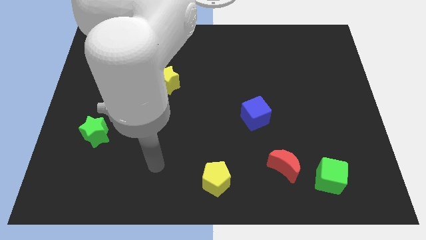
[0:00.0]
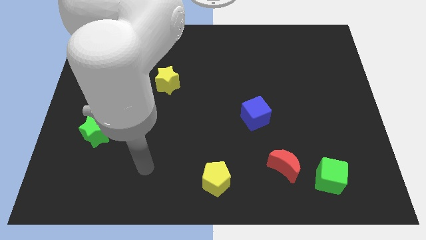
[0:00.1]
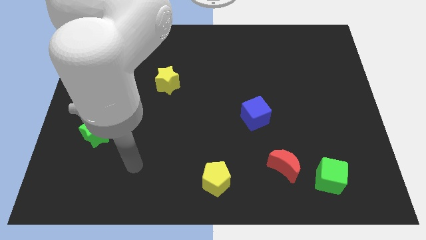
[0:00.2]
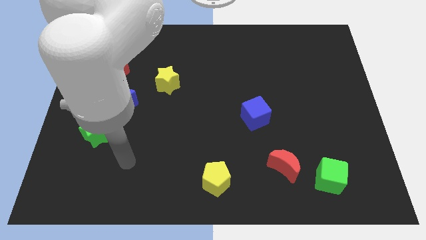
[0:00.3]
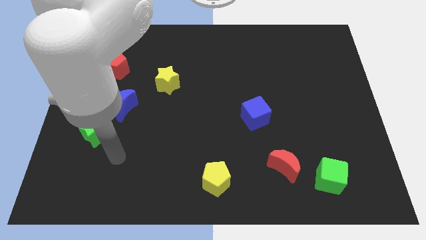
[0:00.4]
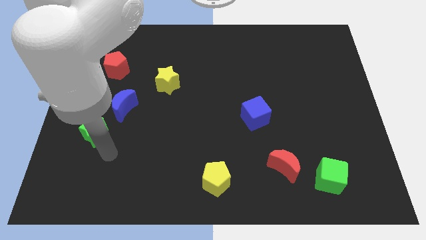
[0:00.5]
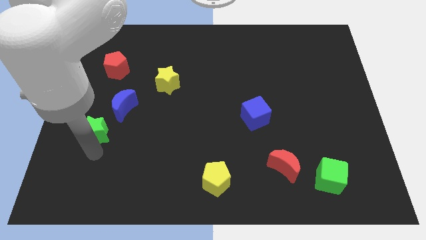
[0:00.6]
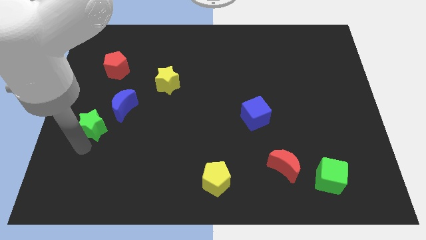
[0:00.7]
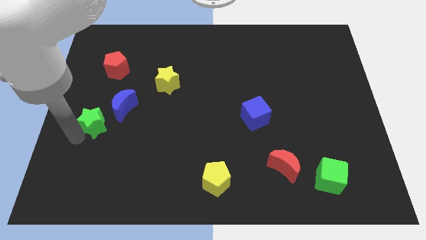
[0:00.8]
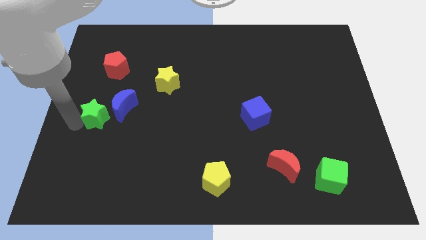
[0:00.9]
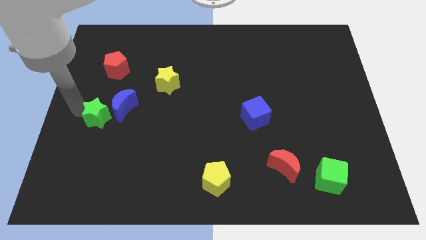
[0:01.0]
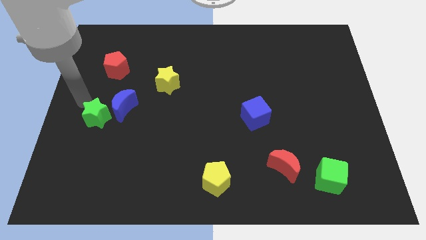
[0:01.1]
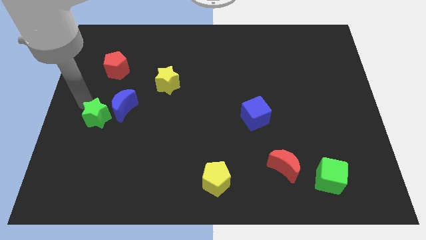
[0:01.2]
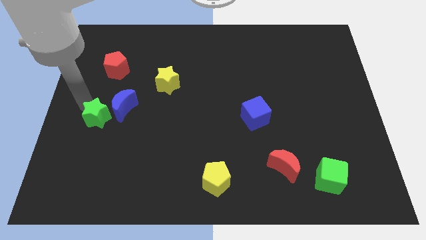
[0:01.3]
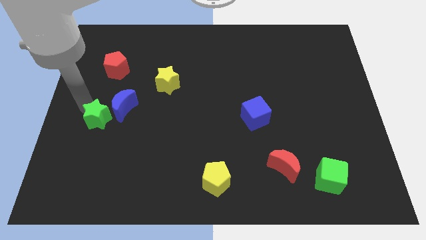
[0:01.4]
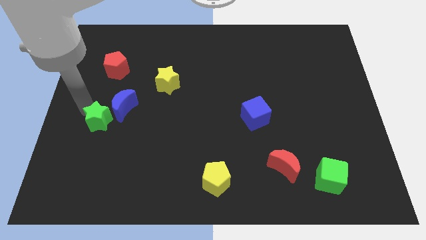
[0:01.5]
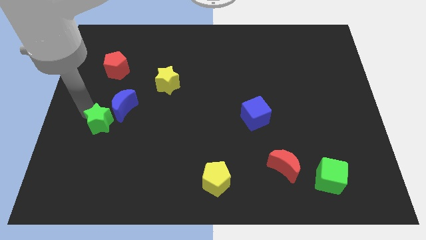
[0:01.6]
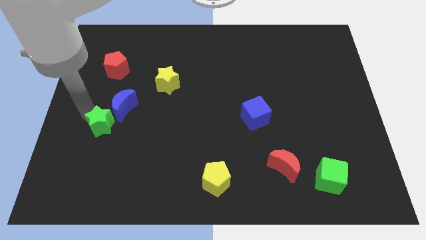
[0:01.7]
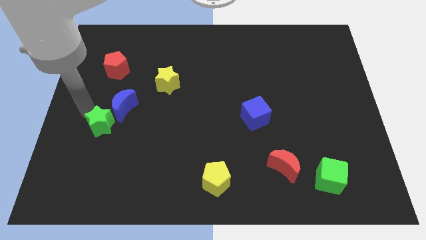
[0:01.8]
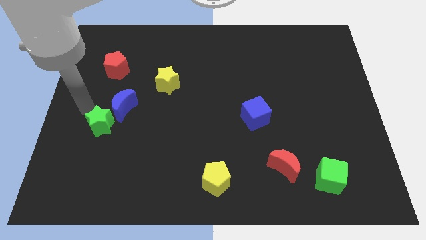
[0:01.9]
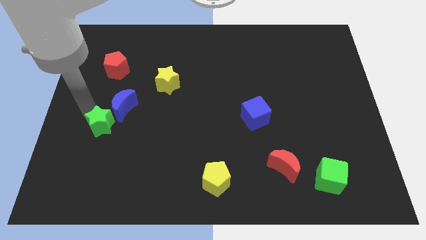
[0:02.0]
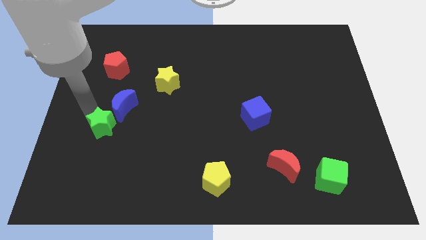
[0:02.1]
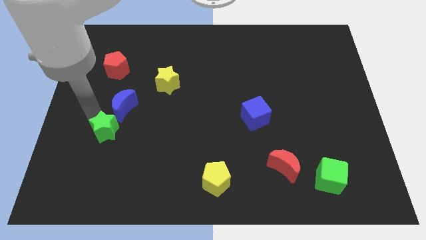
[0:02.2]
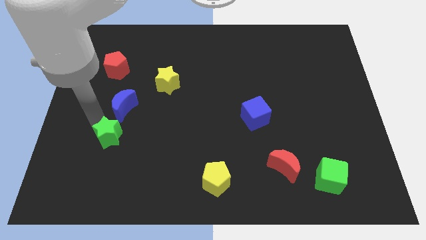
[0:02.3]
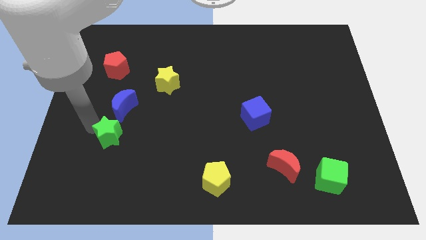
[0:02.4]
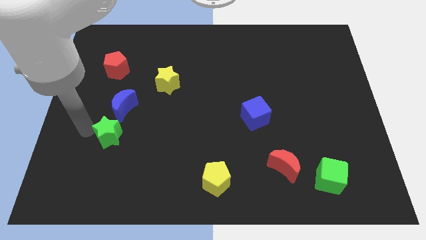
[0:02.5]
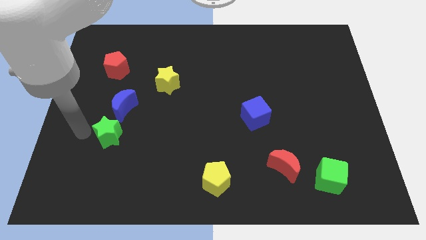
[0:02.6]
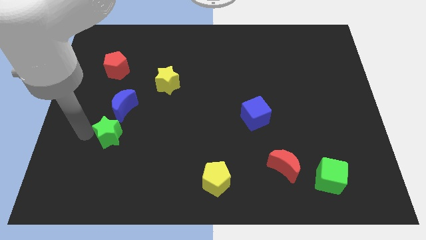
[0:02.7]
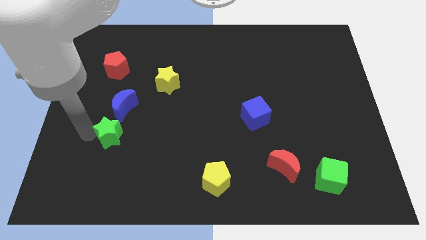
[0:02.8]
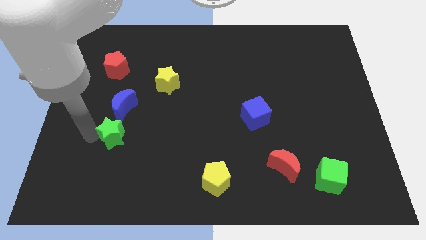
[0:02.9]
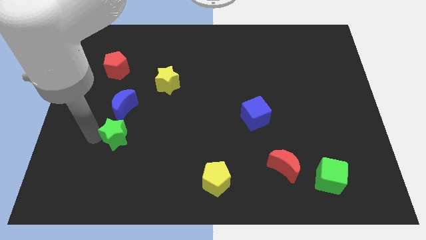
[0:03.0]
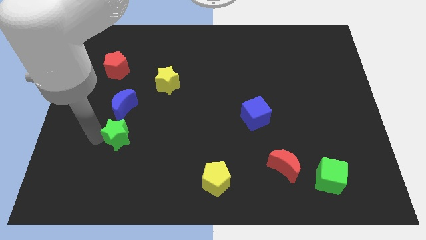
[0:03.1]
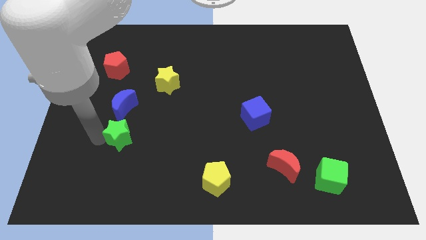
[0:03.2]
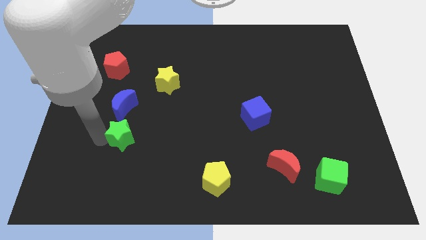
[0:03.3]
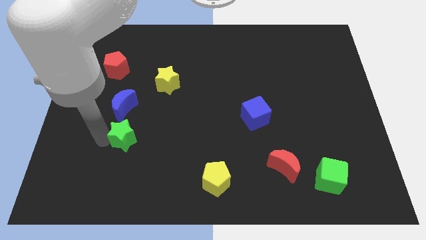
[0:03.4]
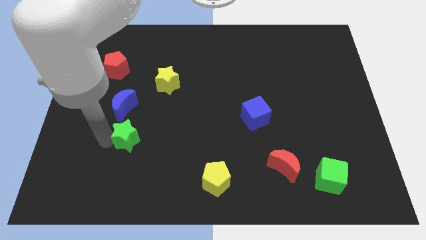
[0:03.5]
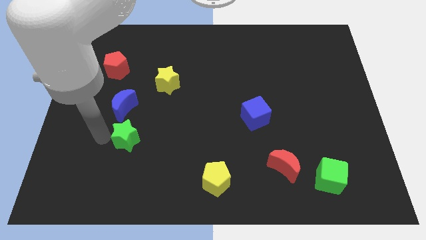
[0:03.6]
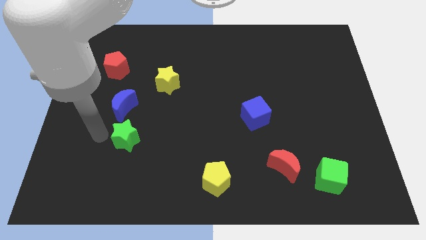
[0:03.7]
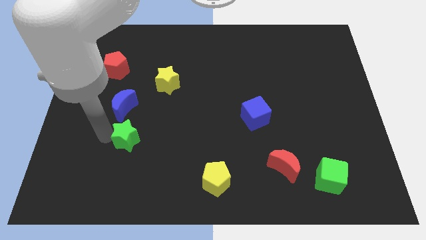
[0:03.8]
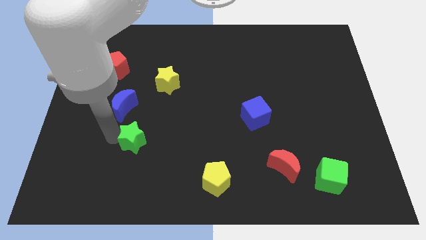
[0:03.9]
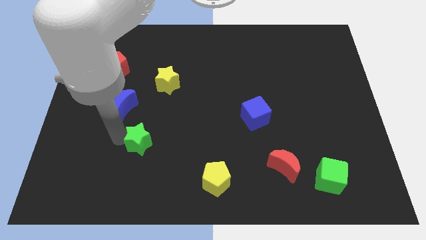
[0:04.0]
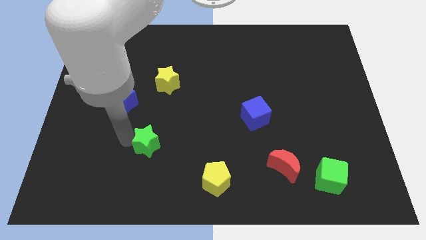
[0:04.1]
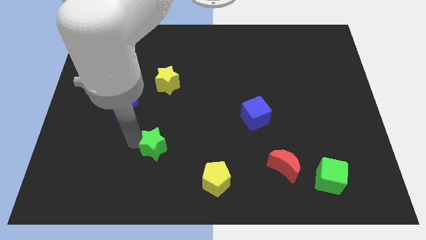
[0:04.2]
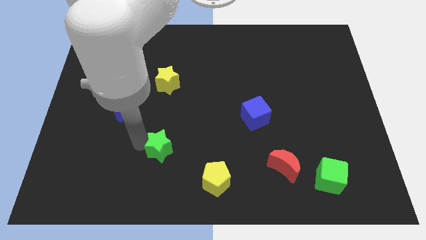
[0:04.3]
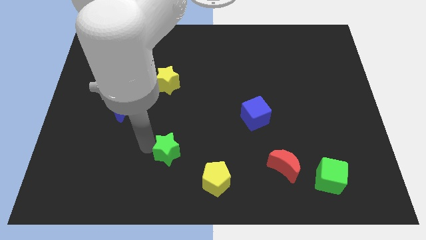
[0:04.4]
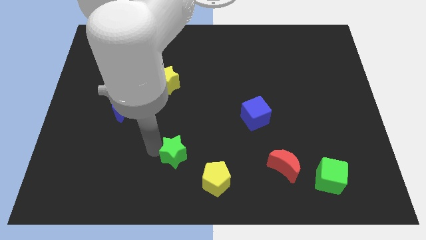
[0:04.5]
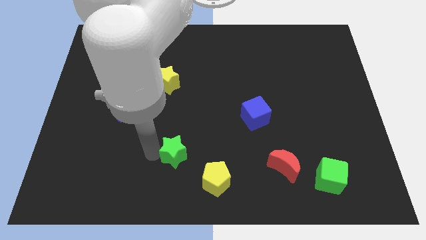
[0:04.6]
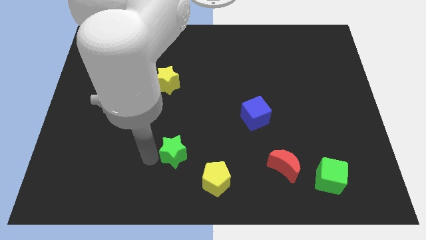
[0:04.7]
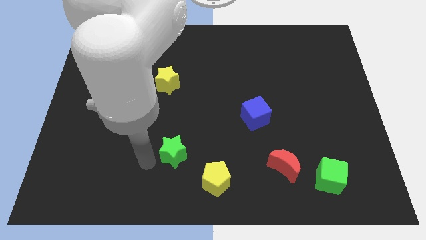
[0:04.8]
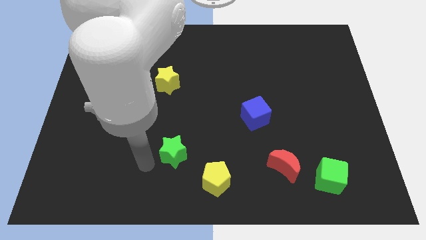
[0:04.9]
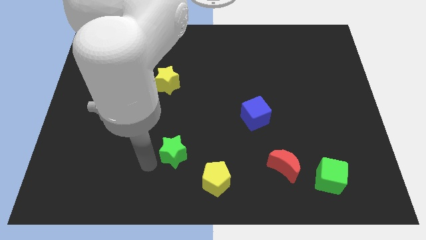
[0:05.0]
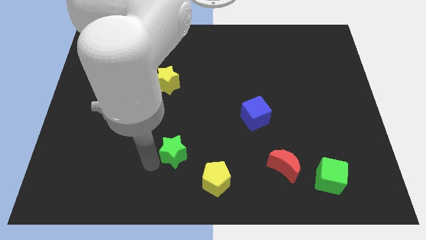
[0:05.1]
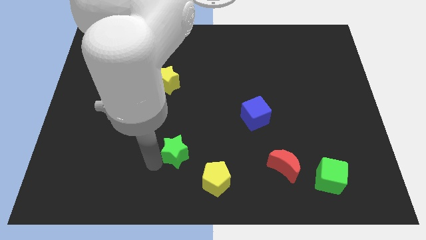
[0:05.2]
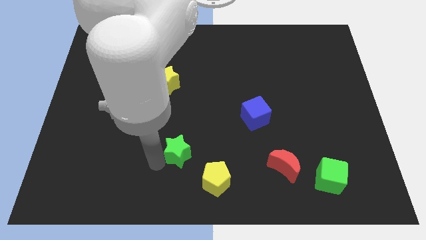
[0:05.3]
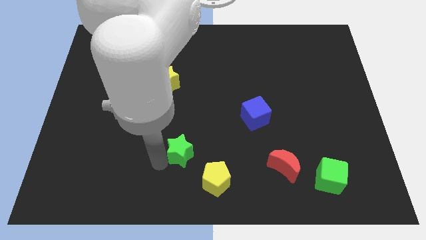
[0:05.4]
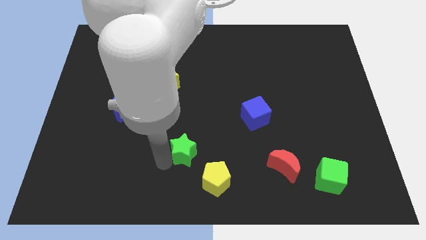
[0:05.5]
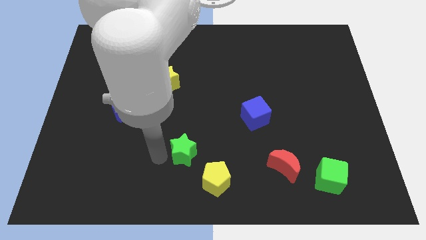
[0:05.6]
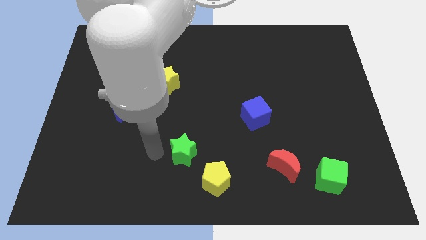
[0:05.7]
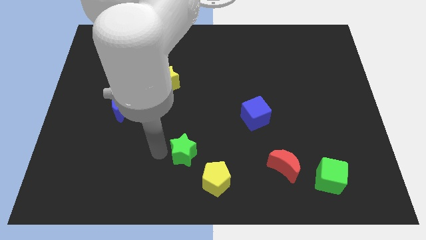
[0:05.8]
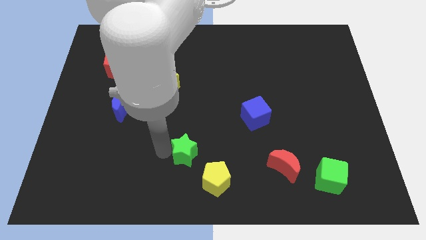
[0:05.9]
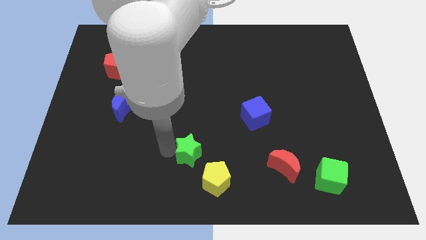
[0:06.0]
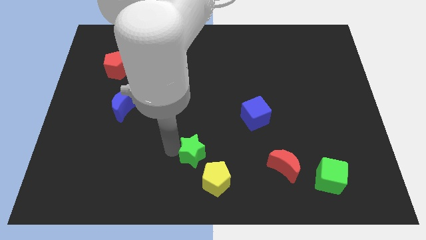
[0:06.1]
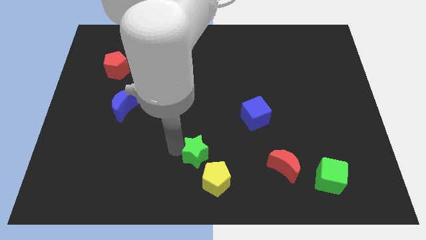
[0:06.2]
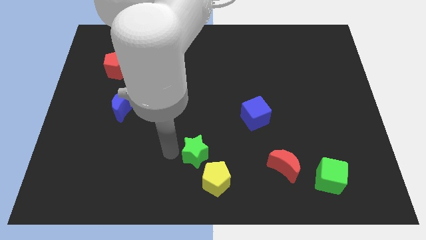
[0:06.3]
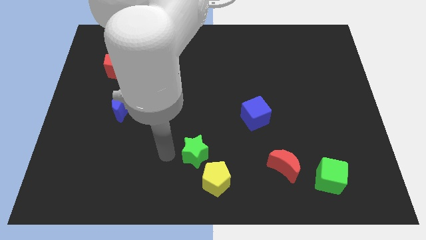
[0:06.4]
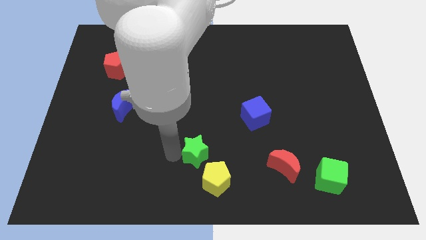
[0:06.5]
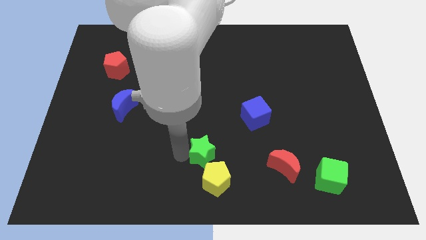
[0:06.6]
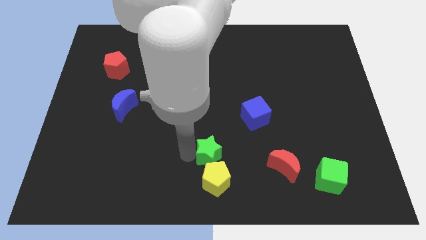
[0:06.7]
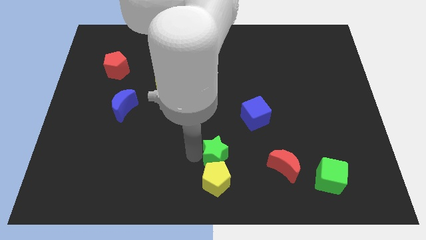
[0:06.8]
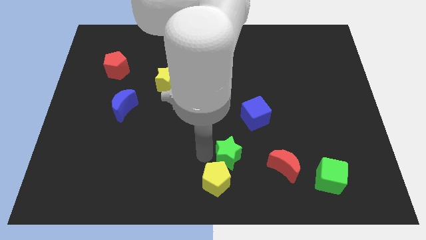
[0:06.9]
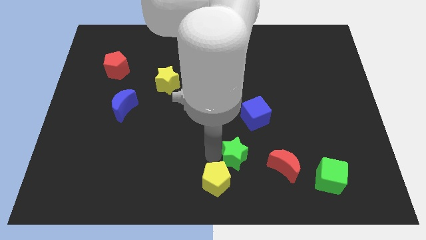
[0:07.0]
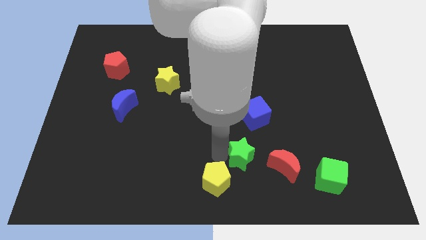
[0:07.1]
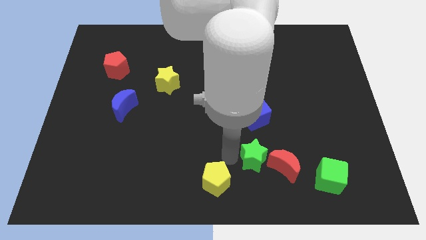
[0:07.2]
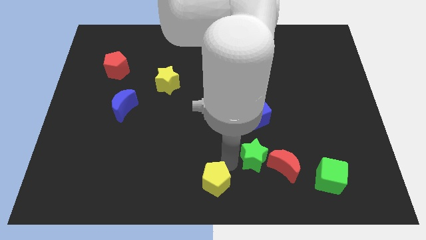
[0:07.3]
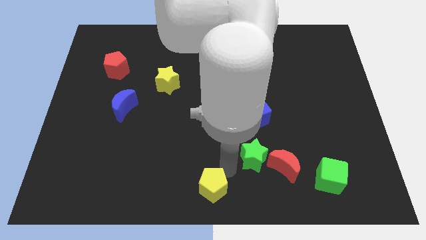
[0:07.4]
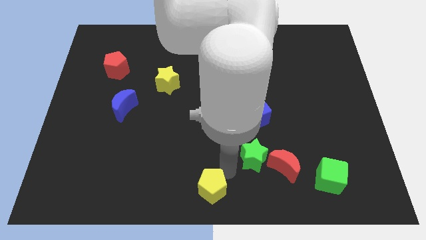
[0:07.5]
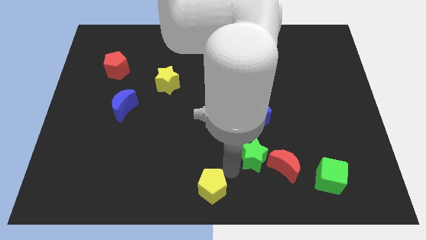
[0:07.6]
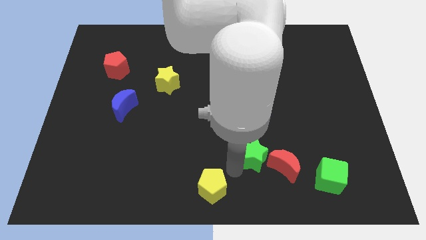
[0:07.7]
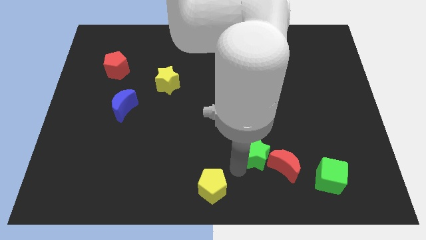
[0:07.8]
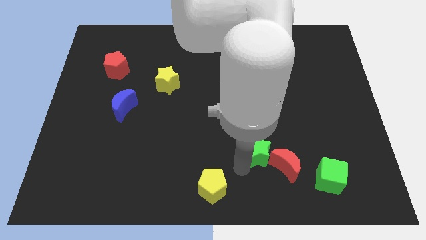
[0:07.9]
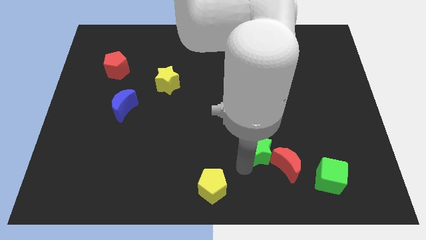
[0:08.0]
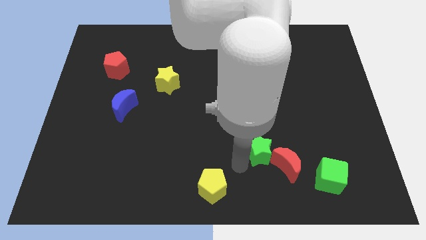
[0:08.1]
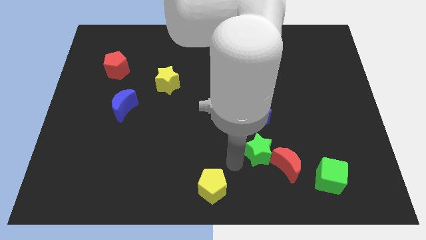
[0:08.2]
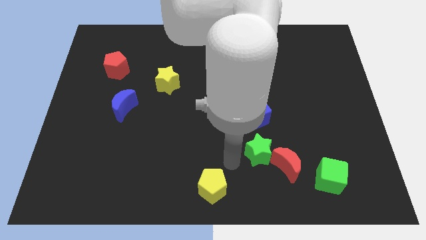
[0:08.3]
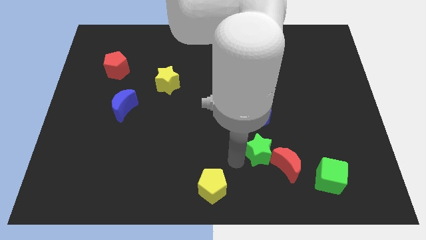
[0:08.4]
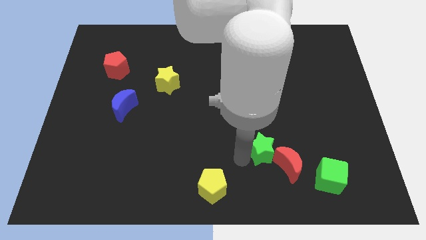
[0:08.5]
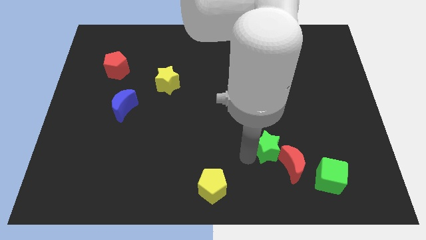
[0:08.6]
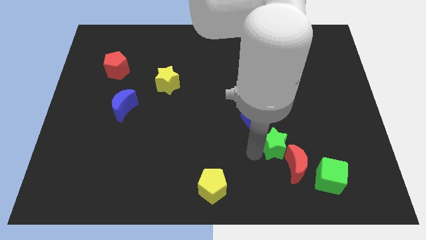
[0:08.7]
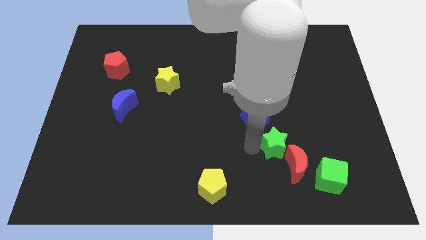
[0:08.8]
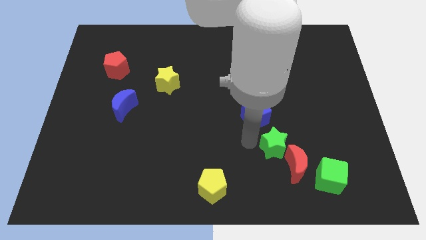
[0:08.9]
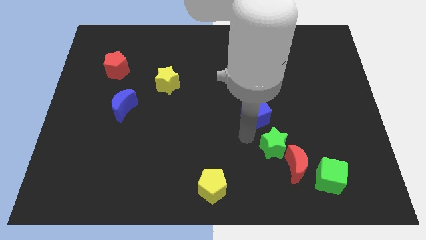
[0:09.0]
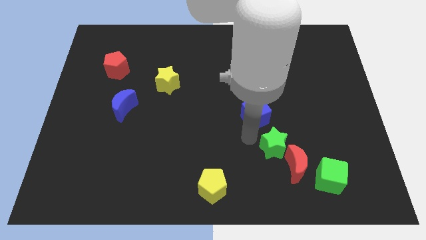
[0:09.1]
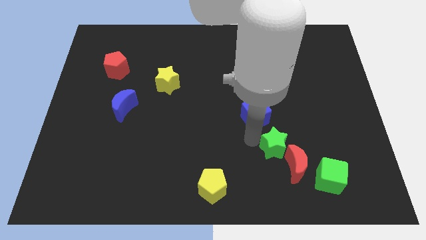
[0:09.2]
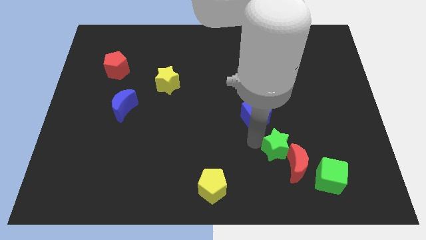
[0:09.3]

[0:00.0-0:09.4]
push the green star to the top left of the green cube
